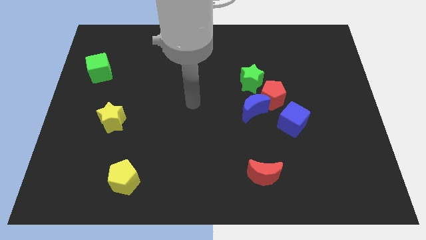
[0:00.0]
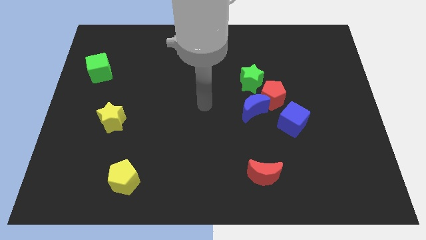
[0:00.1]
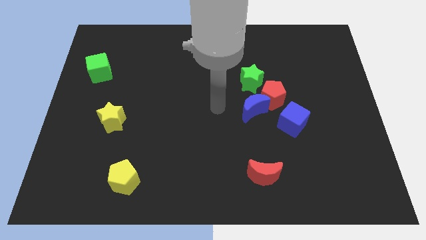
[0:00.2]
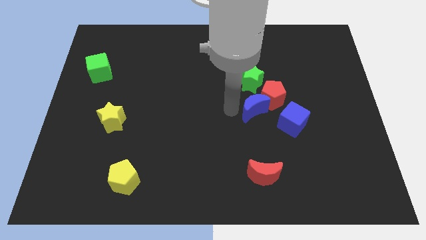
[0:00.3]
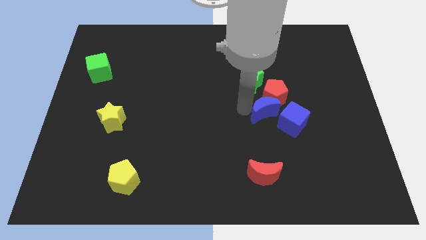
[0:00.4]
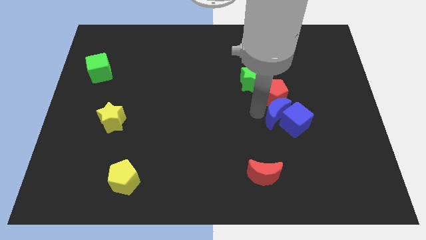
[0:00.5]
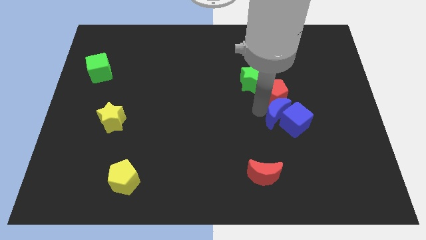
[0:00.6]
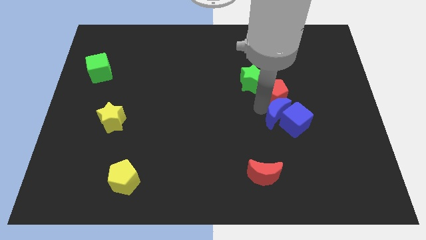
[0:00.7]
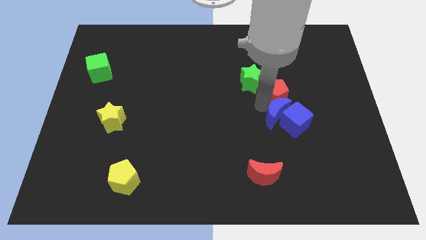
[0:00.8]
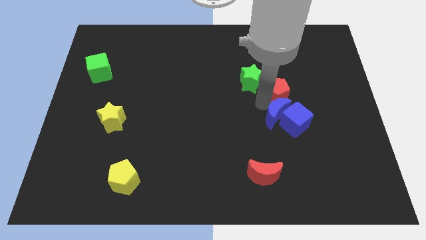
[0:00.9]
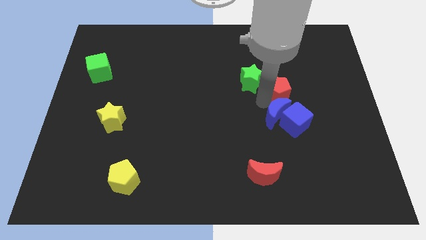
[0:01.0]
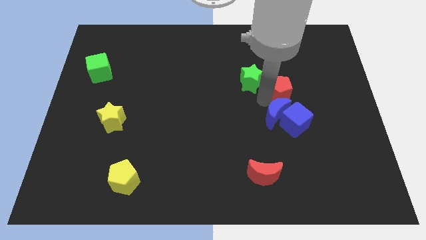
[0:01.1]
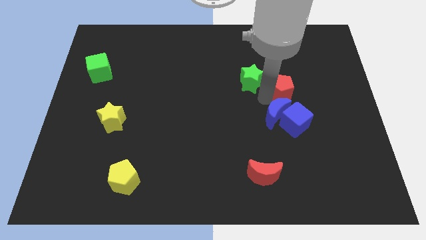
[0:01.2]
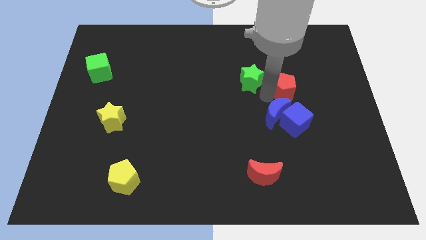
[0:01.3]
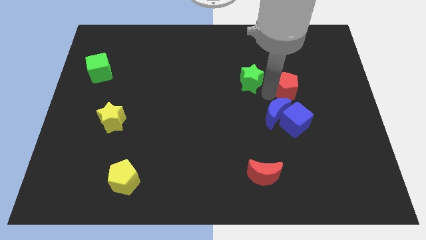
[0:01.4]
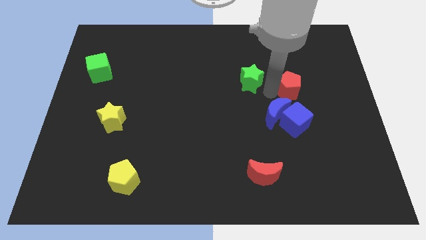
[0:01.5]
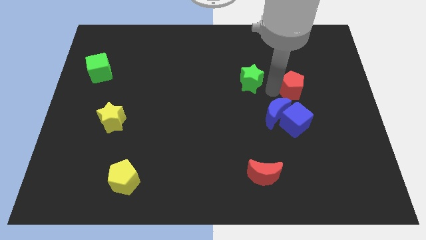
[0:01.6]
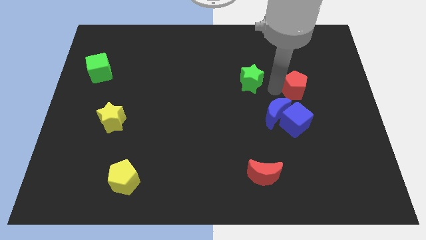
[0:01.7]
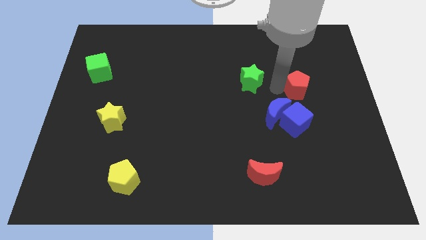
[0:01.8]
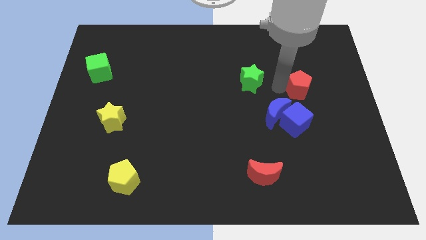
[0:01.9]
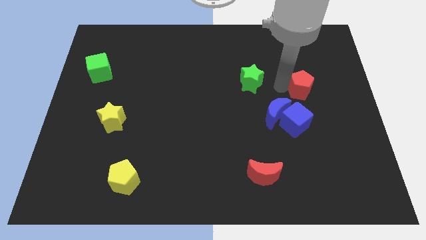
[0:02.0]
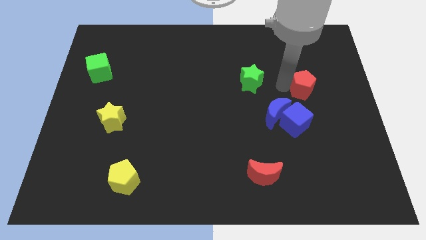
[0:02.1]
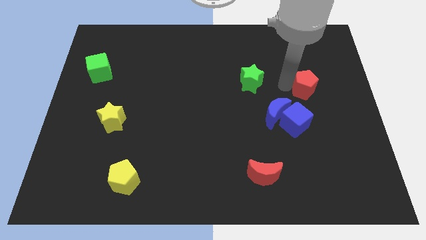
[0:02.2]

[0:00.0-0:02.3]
move the red pentagon away from the group of blocks

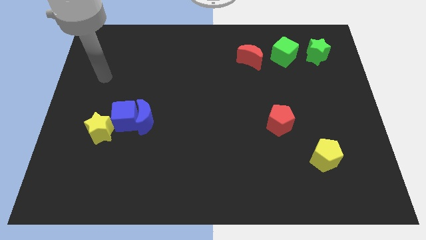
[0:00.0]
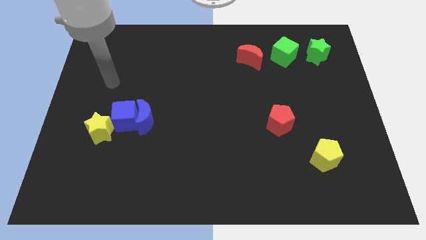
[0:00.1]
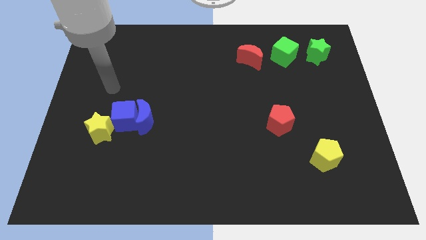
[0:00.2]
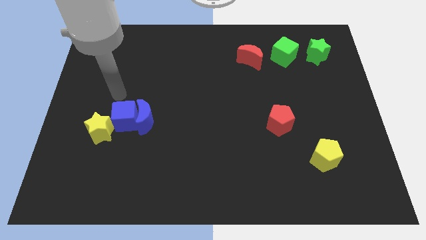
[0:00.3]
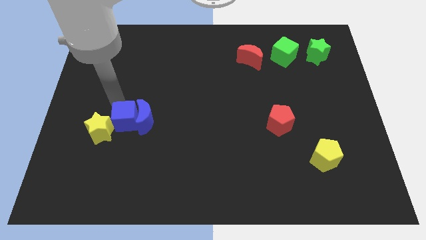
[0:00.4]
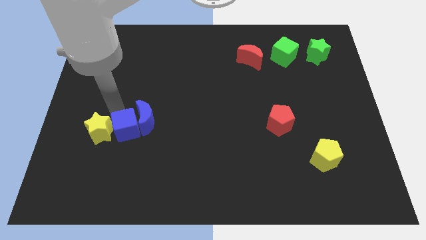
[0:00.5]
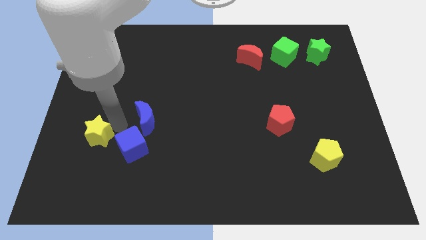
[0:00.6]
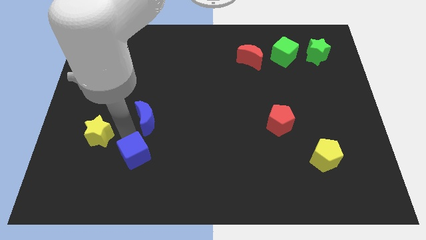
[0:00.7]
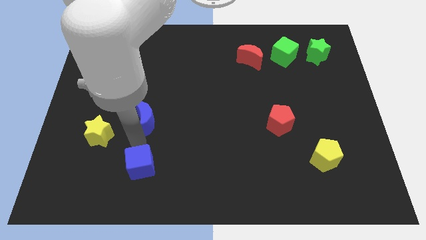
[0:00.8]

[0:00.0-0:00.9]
move the blue moon away from the blue cube

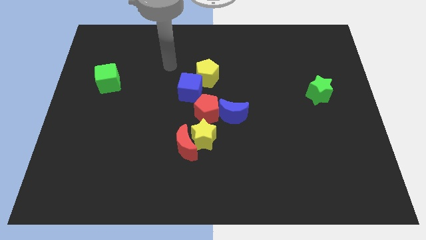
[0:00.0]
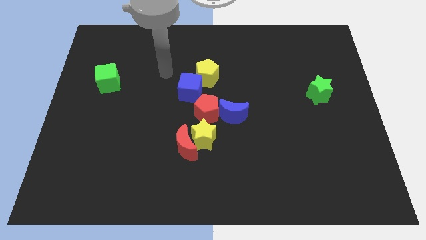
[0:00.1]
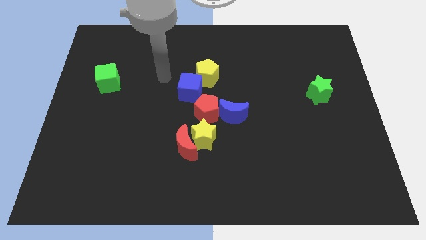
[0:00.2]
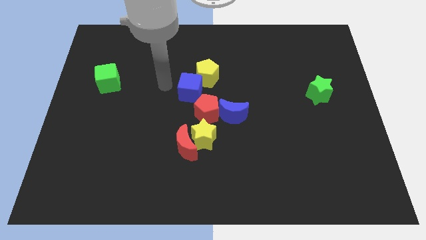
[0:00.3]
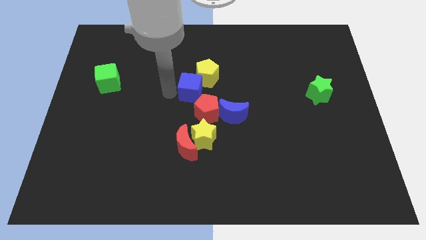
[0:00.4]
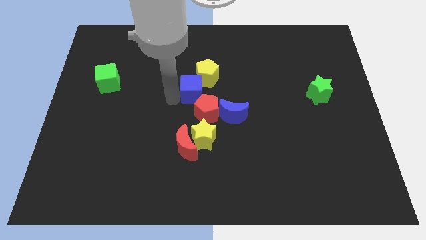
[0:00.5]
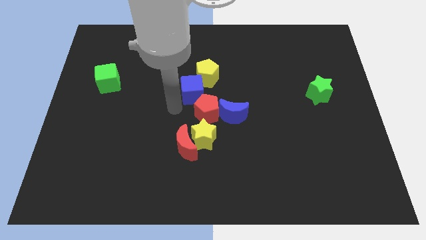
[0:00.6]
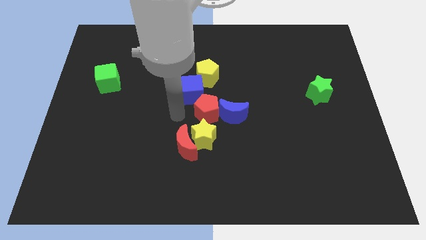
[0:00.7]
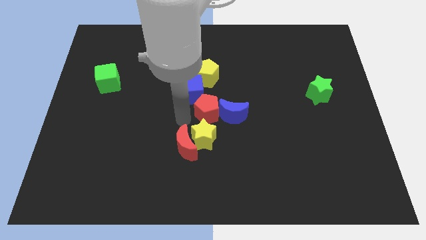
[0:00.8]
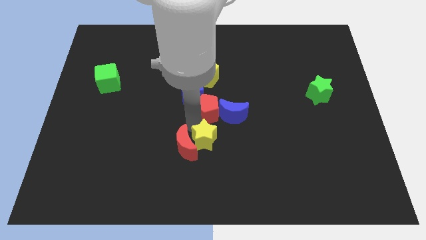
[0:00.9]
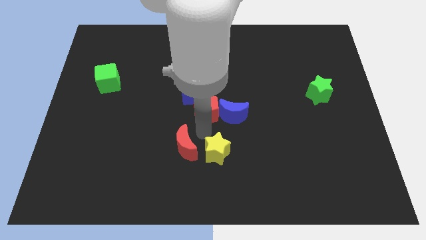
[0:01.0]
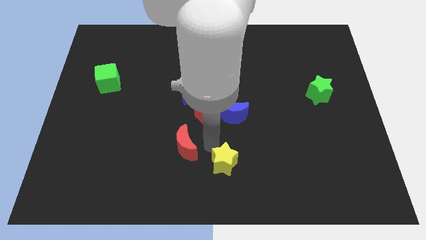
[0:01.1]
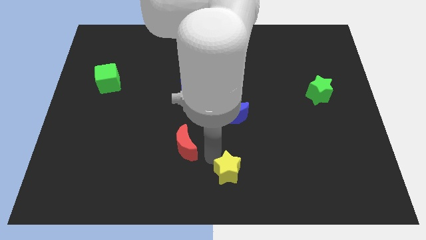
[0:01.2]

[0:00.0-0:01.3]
separate the red moon from the yellow star

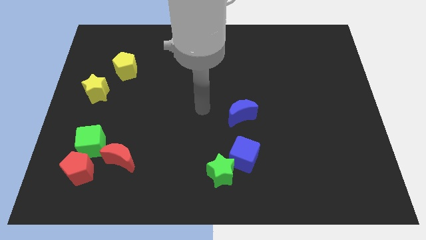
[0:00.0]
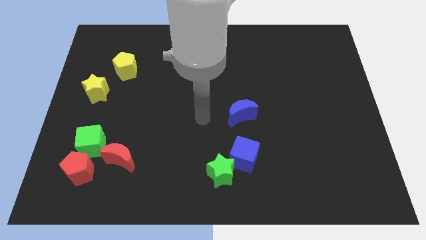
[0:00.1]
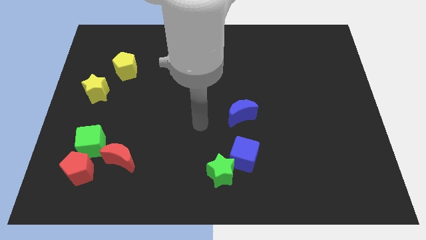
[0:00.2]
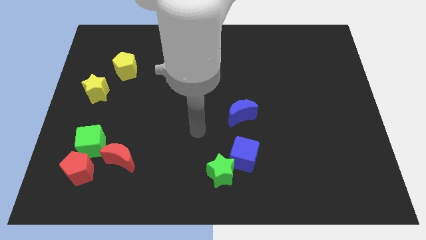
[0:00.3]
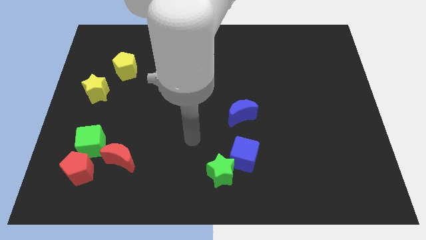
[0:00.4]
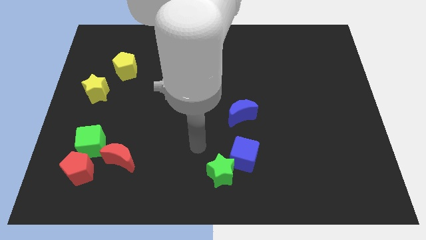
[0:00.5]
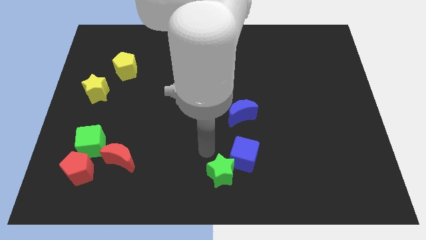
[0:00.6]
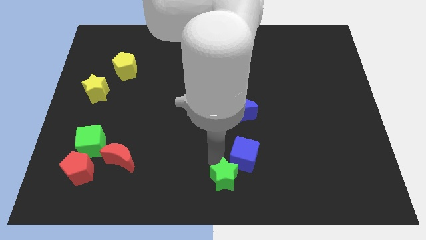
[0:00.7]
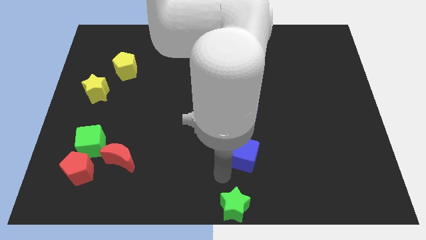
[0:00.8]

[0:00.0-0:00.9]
pull the blue cube apart from the green star

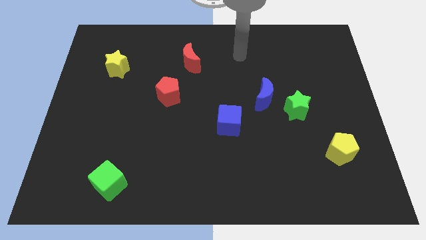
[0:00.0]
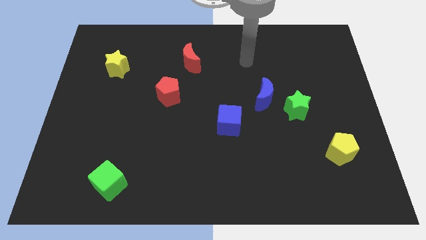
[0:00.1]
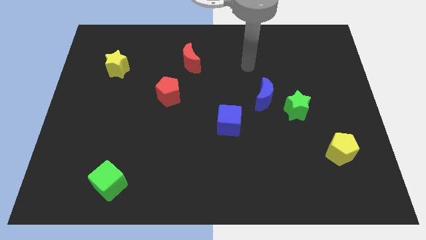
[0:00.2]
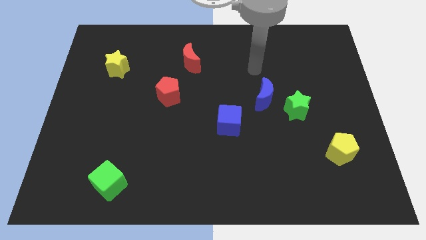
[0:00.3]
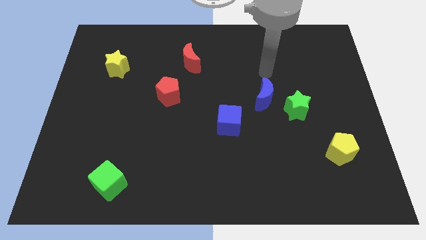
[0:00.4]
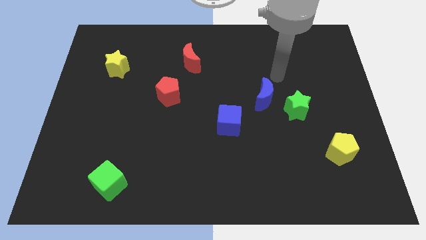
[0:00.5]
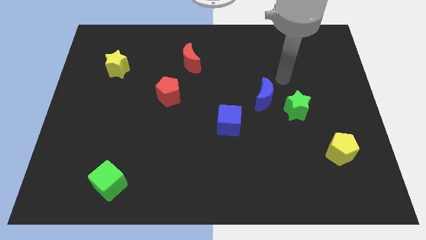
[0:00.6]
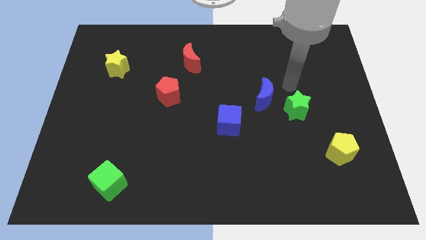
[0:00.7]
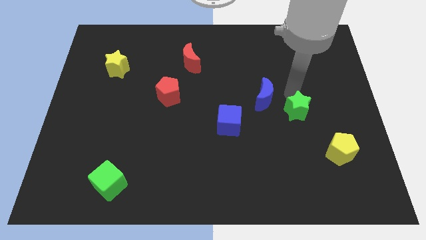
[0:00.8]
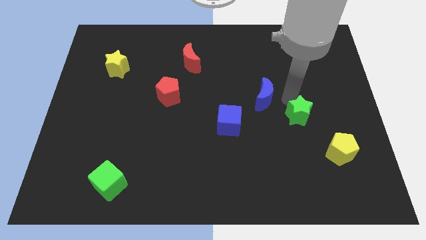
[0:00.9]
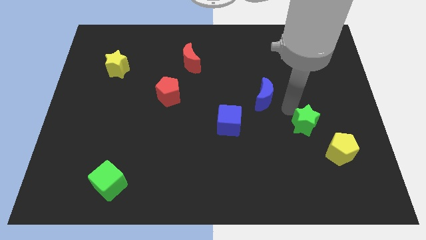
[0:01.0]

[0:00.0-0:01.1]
move the blue moon away from the green star

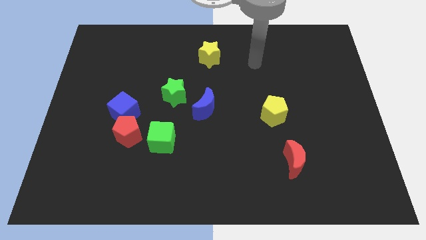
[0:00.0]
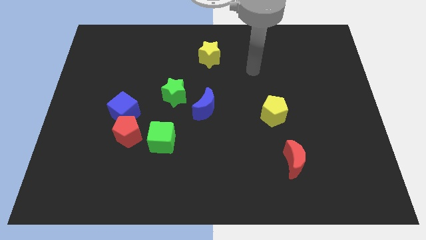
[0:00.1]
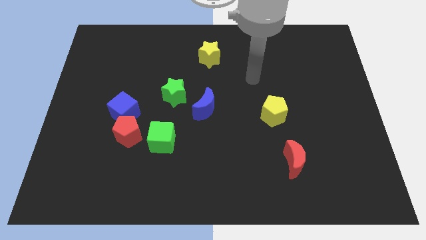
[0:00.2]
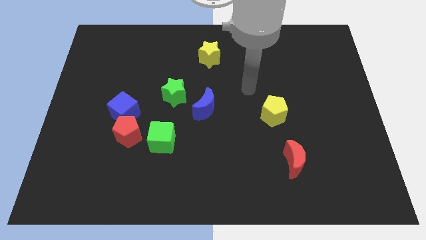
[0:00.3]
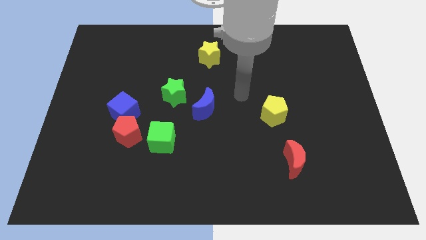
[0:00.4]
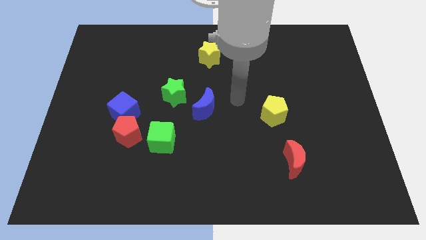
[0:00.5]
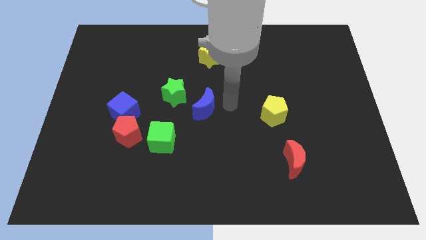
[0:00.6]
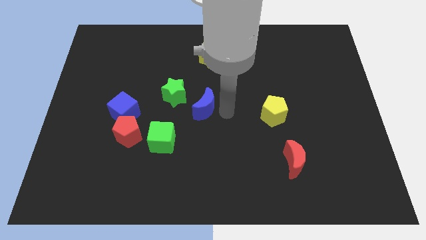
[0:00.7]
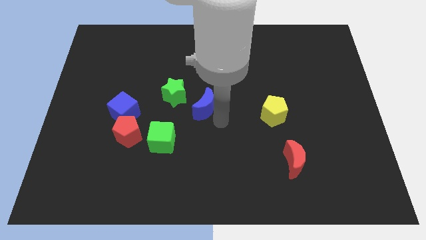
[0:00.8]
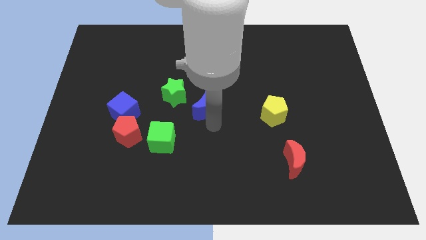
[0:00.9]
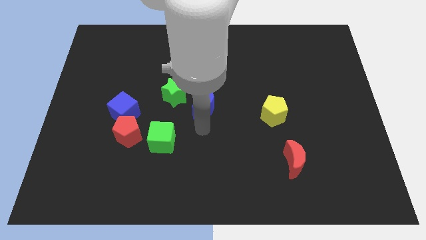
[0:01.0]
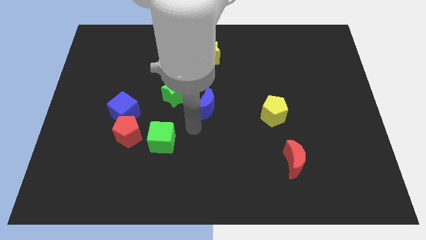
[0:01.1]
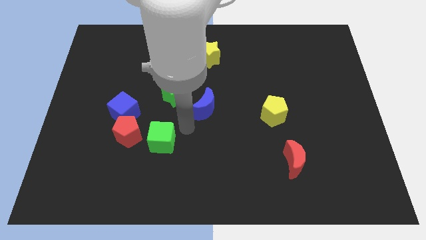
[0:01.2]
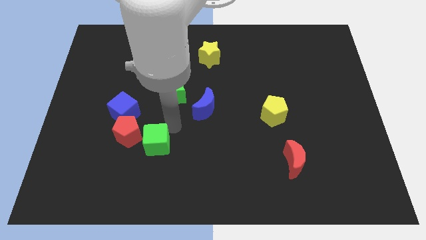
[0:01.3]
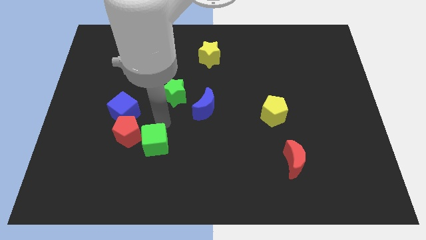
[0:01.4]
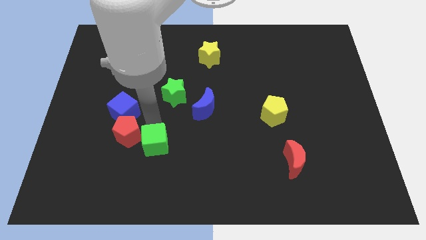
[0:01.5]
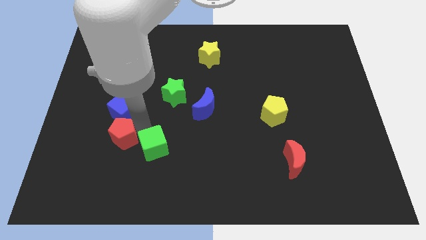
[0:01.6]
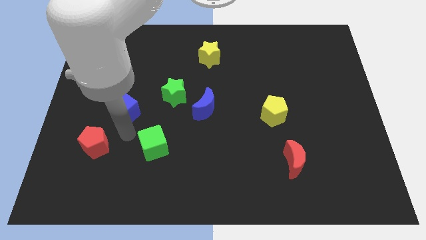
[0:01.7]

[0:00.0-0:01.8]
separate the blue cube from the red pentagon

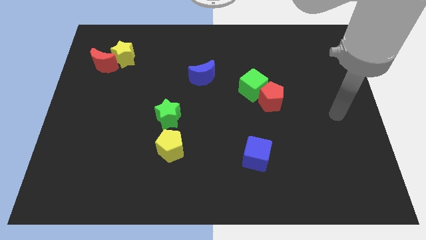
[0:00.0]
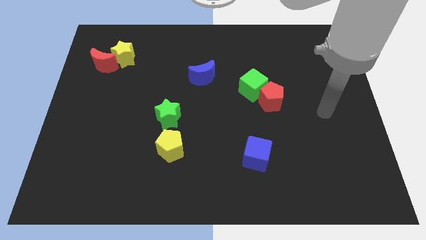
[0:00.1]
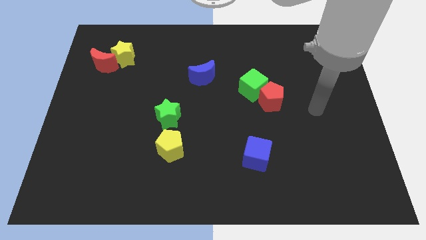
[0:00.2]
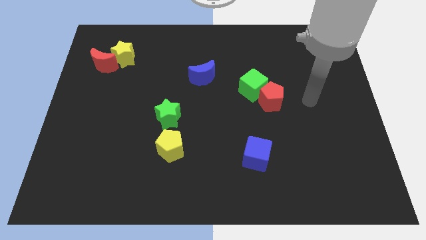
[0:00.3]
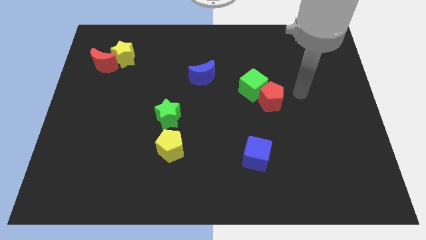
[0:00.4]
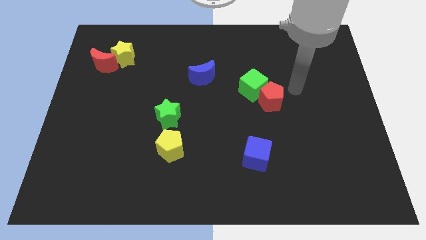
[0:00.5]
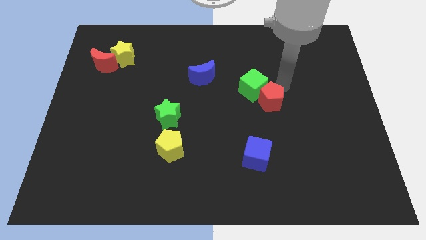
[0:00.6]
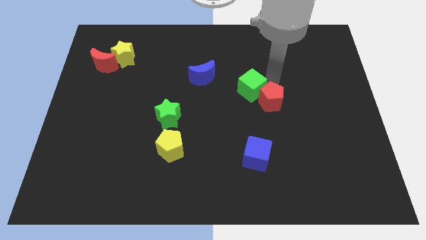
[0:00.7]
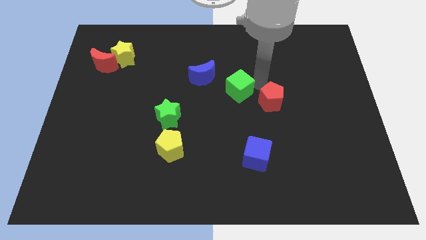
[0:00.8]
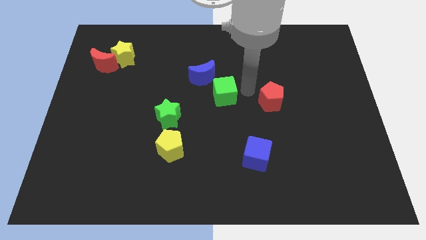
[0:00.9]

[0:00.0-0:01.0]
move the red pentagon away from the green cube
